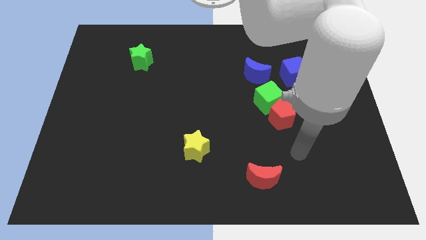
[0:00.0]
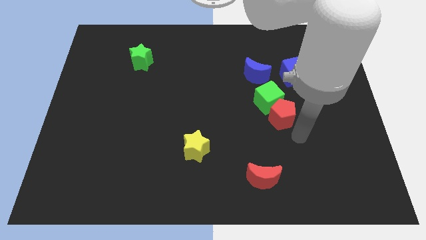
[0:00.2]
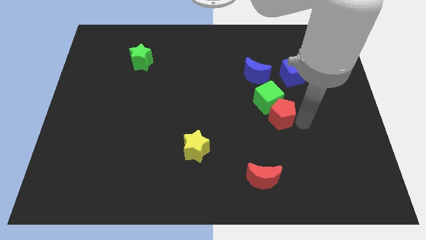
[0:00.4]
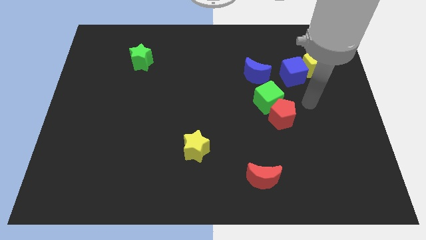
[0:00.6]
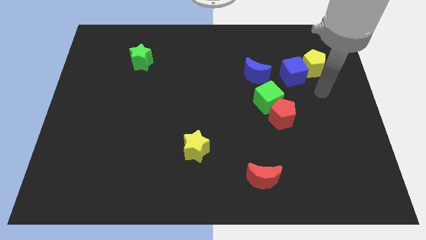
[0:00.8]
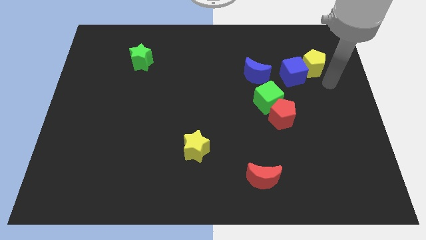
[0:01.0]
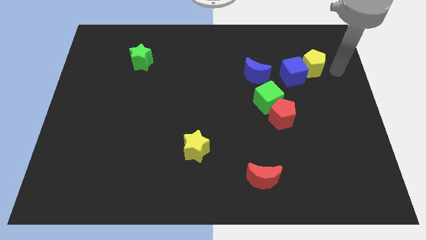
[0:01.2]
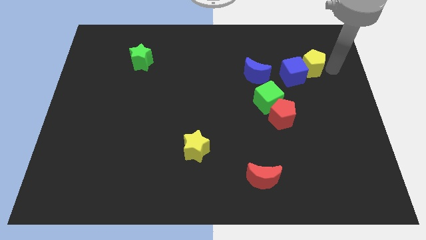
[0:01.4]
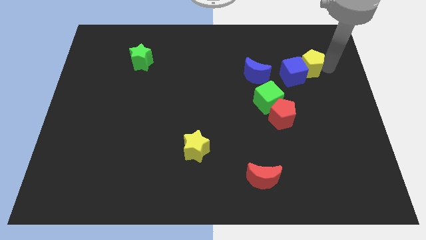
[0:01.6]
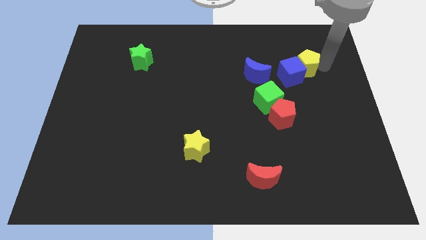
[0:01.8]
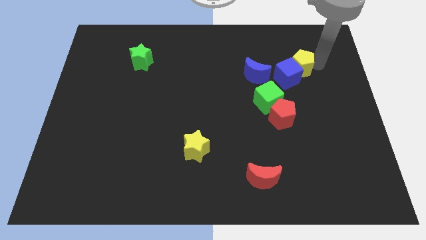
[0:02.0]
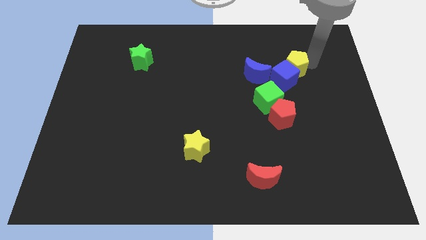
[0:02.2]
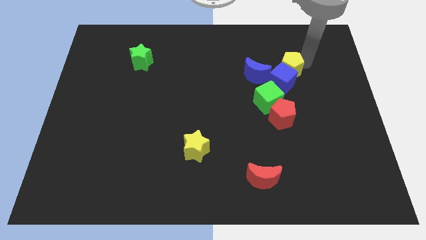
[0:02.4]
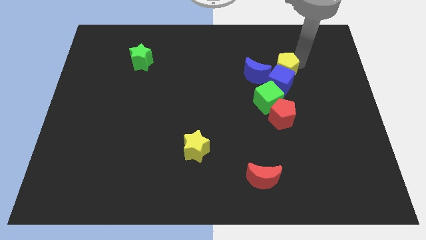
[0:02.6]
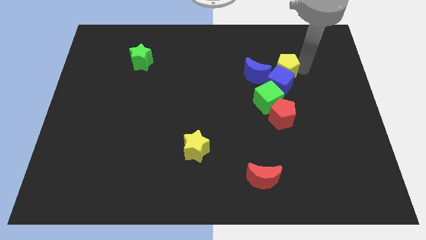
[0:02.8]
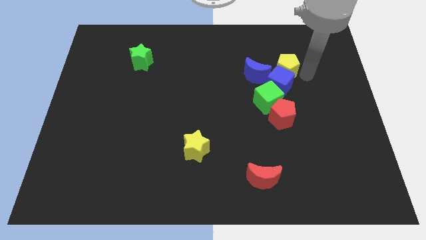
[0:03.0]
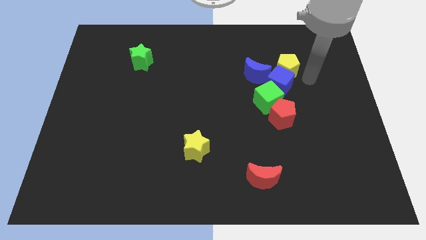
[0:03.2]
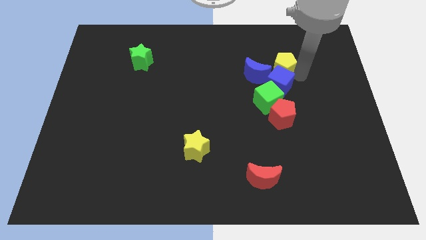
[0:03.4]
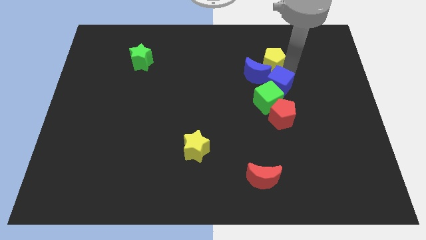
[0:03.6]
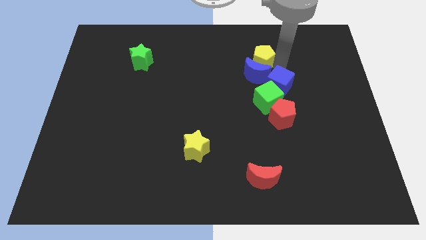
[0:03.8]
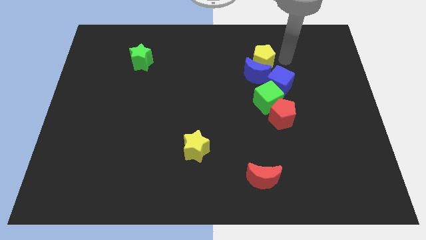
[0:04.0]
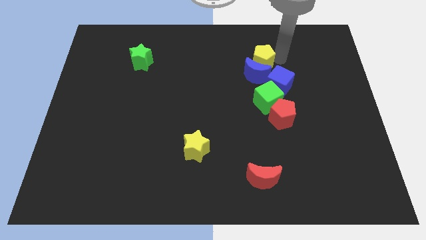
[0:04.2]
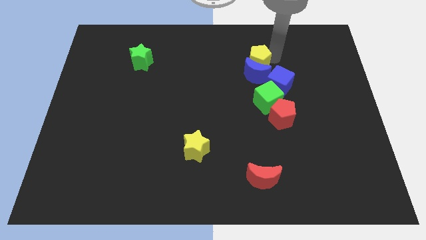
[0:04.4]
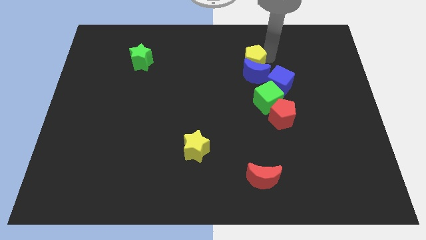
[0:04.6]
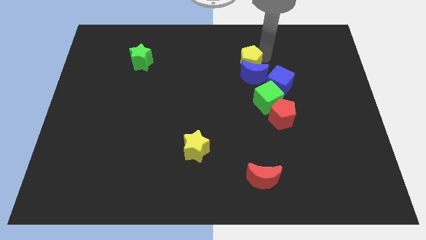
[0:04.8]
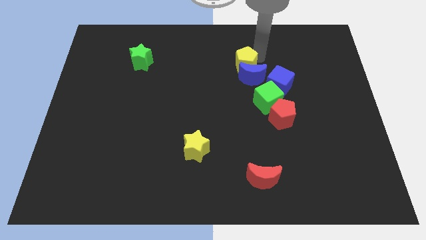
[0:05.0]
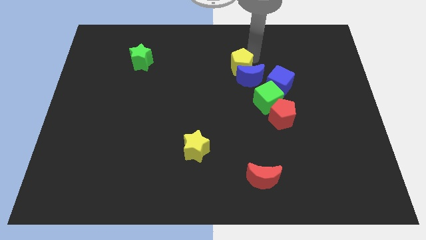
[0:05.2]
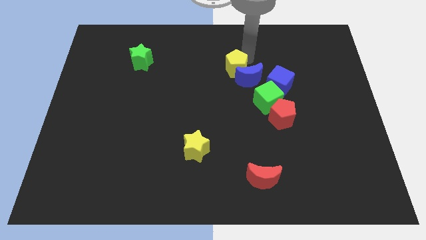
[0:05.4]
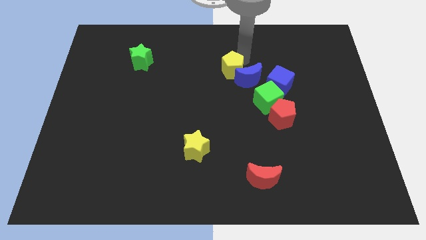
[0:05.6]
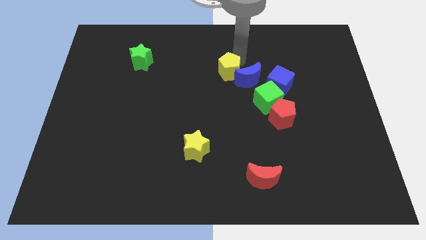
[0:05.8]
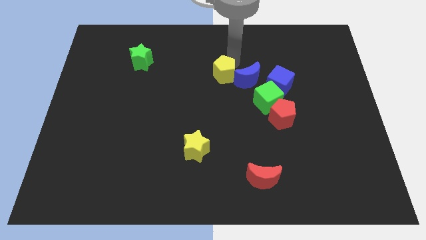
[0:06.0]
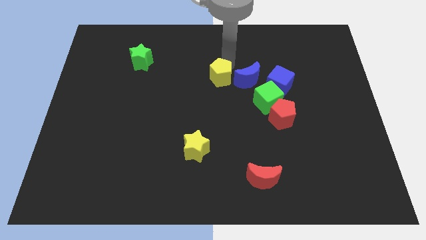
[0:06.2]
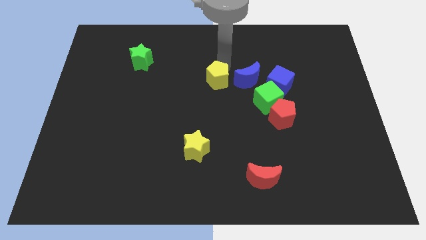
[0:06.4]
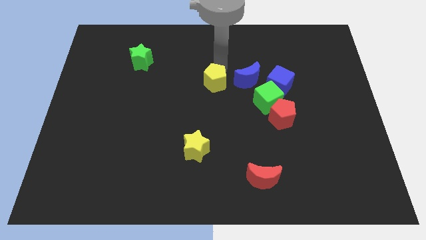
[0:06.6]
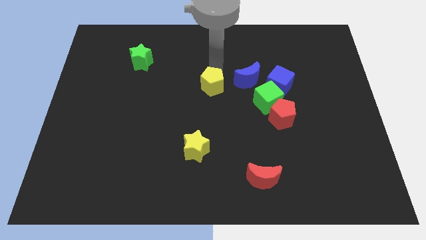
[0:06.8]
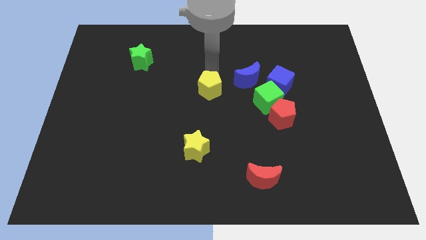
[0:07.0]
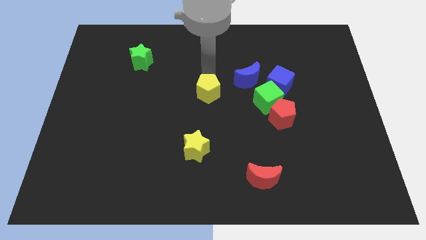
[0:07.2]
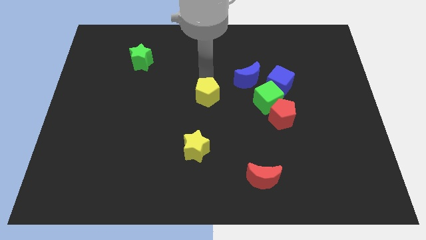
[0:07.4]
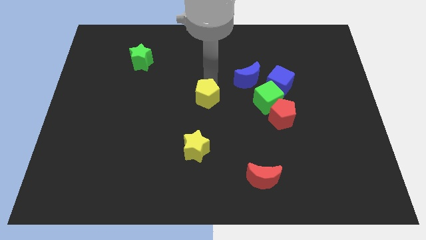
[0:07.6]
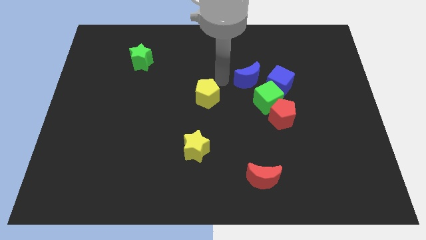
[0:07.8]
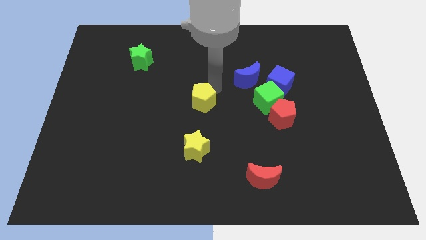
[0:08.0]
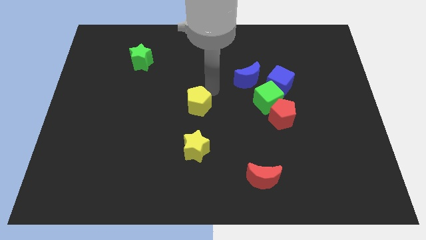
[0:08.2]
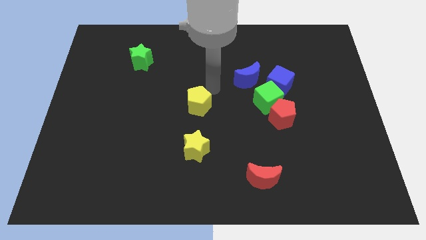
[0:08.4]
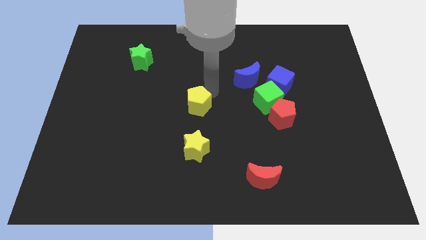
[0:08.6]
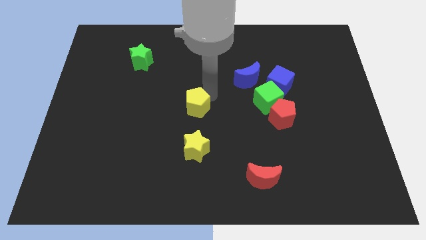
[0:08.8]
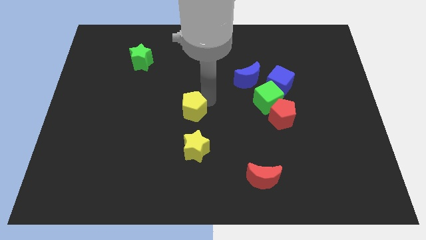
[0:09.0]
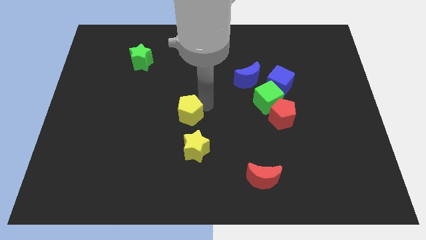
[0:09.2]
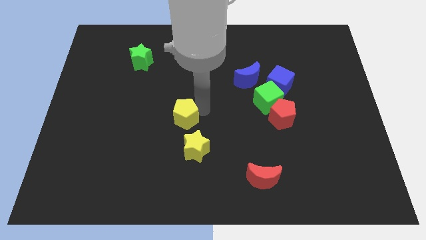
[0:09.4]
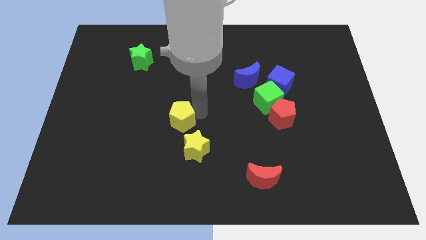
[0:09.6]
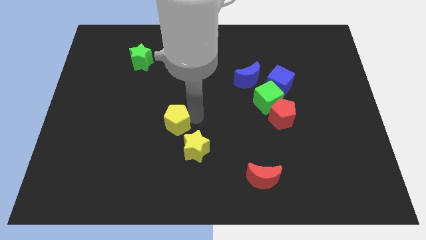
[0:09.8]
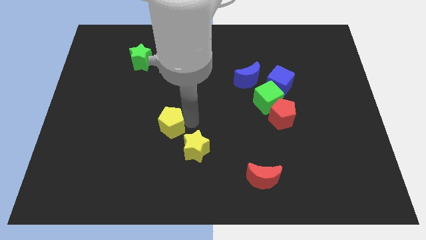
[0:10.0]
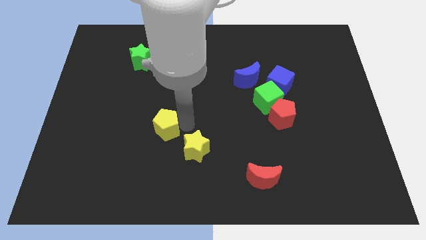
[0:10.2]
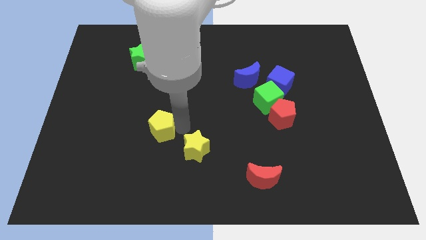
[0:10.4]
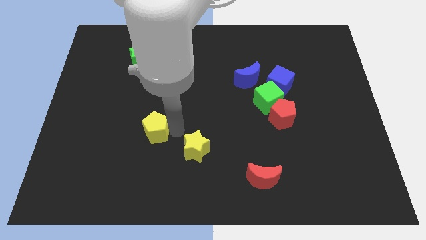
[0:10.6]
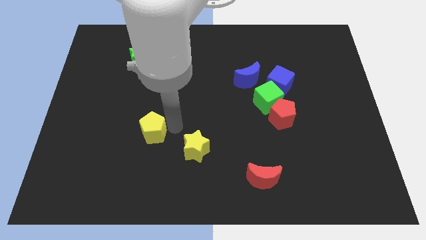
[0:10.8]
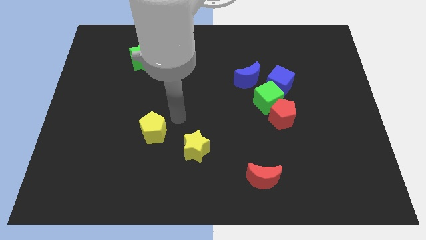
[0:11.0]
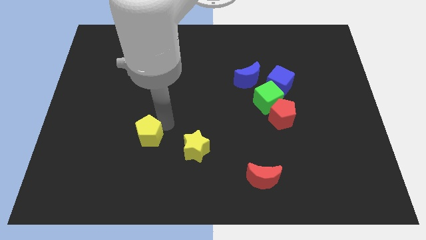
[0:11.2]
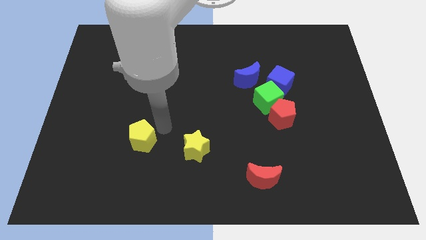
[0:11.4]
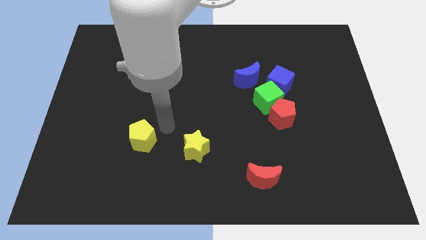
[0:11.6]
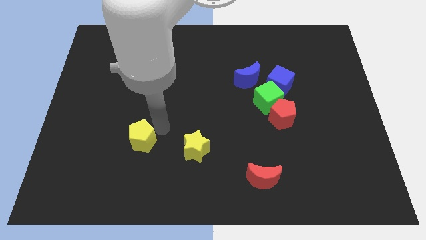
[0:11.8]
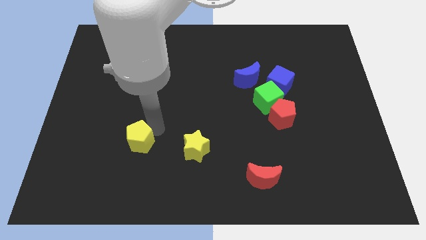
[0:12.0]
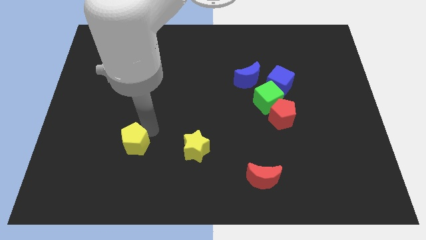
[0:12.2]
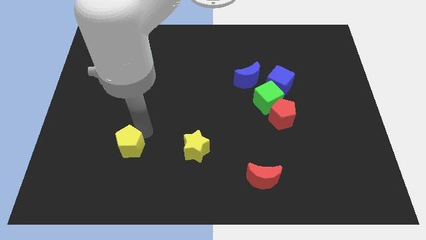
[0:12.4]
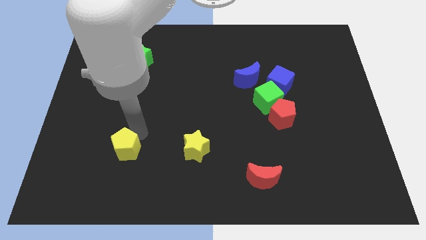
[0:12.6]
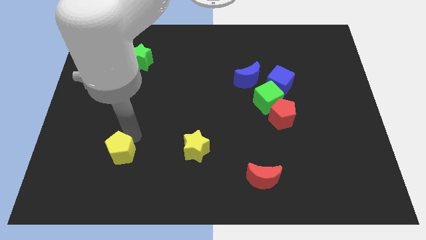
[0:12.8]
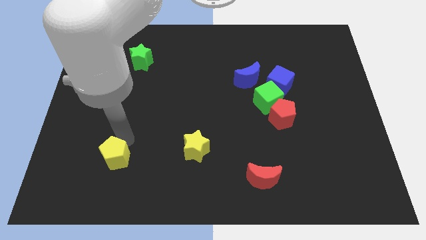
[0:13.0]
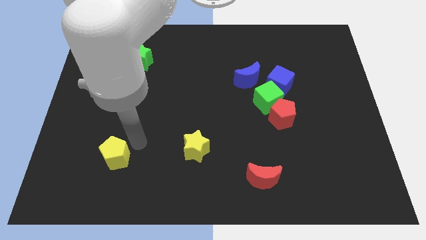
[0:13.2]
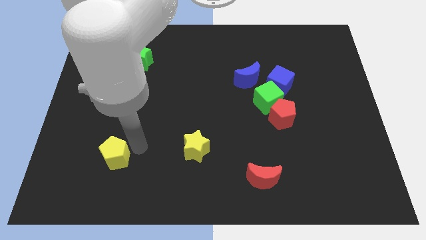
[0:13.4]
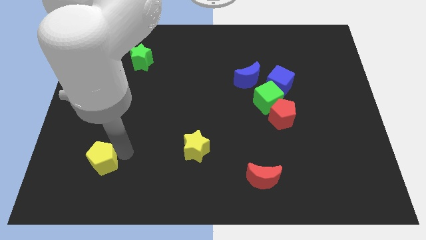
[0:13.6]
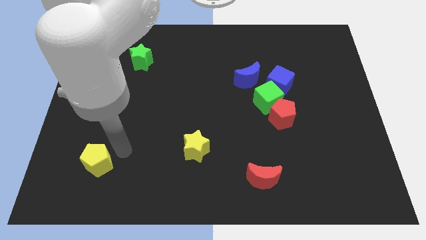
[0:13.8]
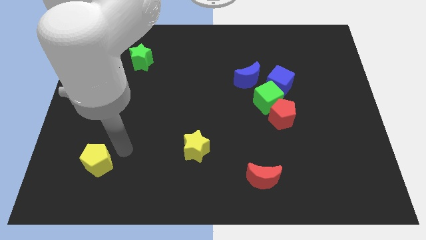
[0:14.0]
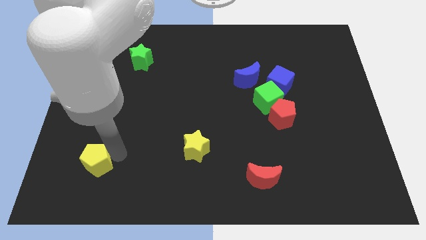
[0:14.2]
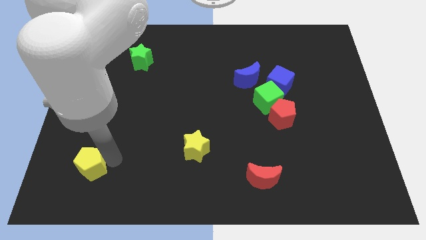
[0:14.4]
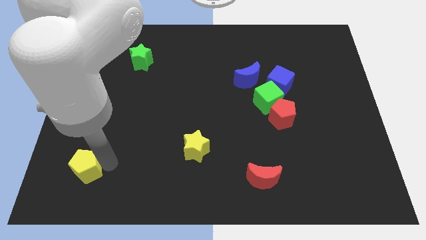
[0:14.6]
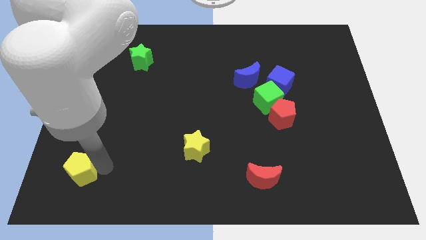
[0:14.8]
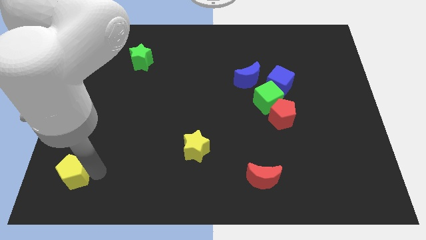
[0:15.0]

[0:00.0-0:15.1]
slide the yellow pentagon to the bottom left
